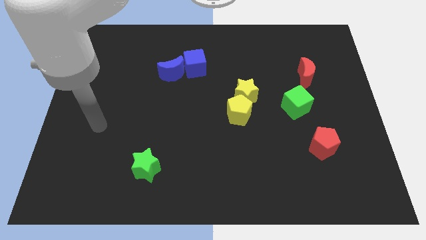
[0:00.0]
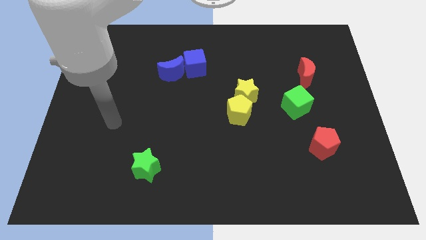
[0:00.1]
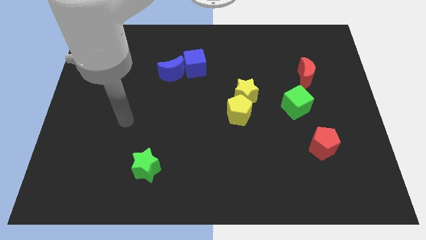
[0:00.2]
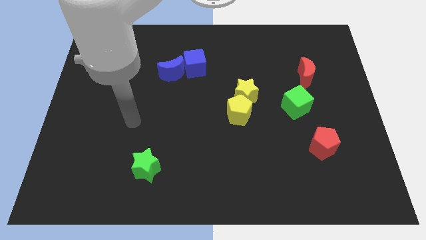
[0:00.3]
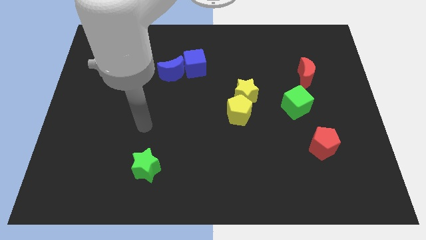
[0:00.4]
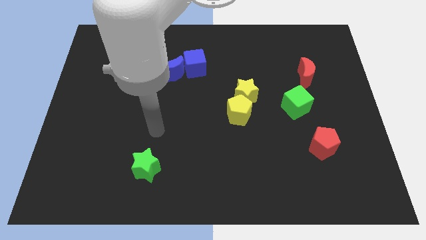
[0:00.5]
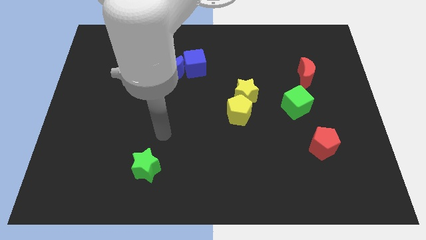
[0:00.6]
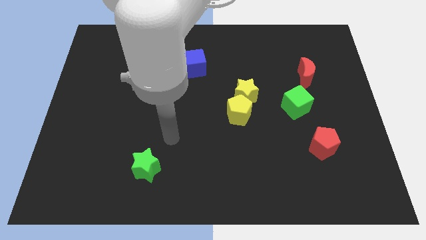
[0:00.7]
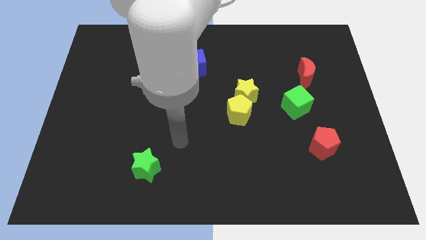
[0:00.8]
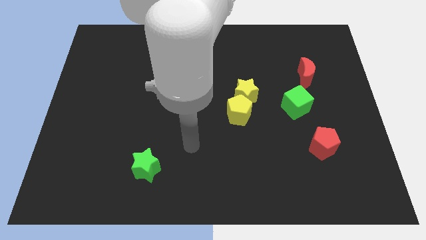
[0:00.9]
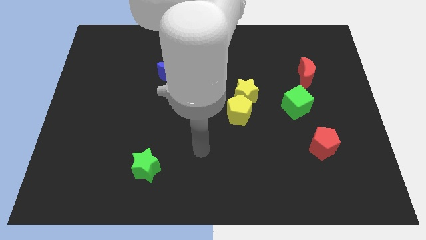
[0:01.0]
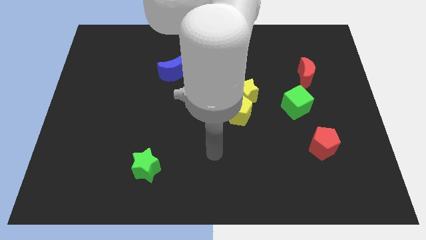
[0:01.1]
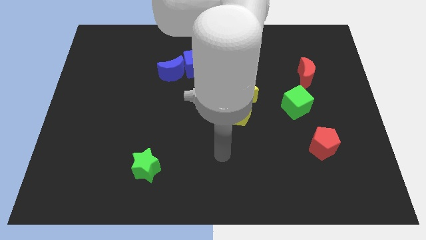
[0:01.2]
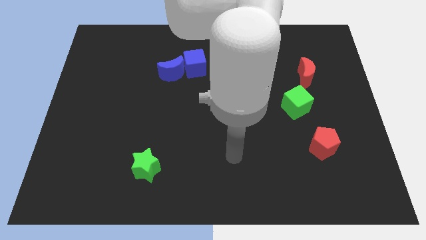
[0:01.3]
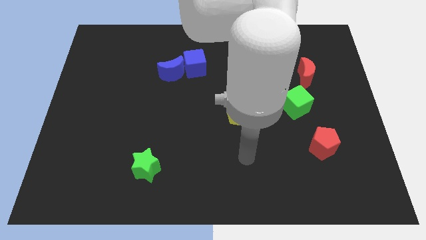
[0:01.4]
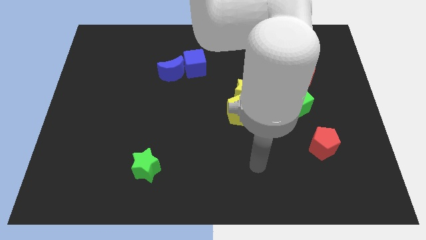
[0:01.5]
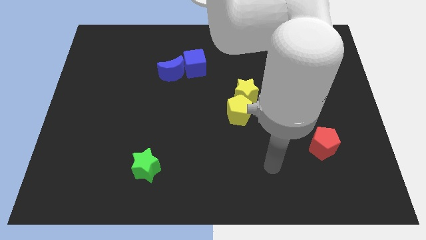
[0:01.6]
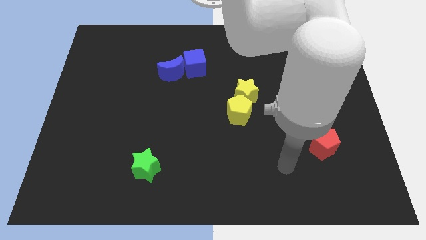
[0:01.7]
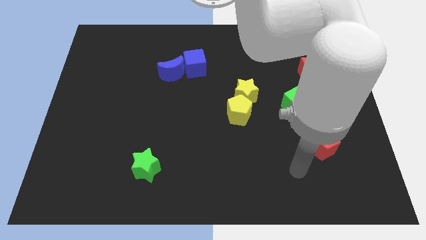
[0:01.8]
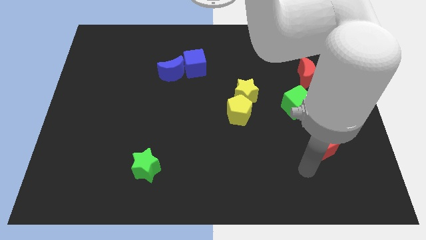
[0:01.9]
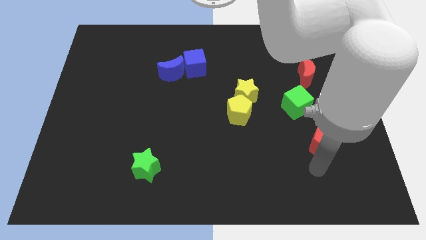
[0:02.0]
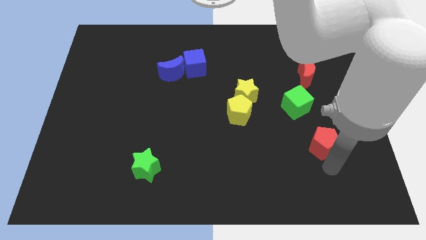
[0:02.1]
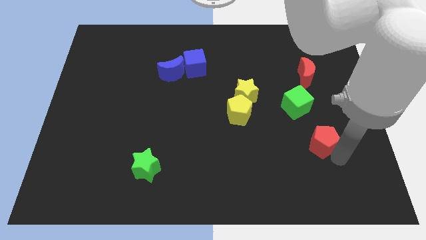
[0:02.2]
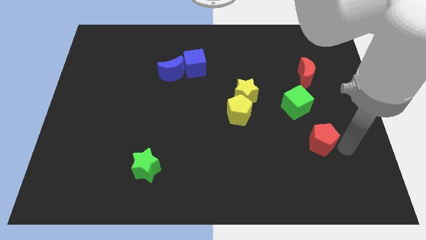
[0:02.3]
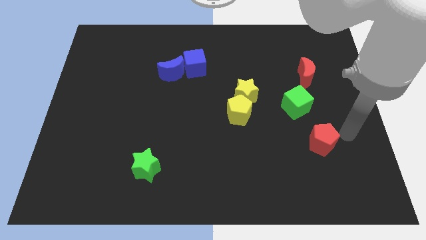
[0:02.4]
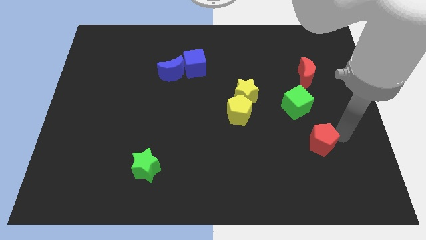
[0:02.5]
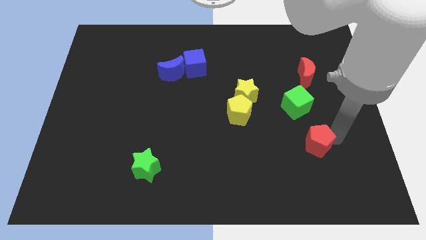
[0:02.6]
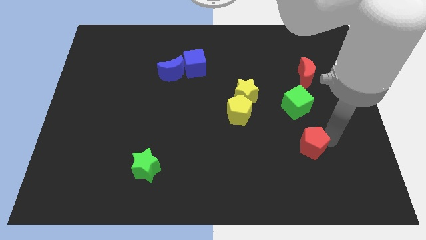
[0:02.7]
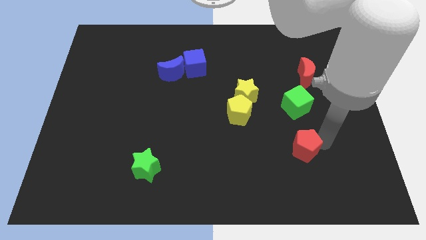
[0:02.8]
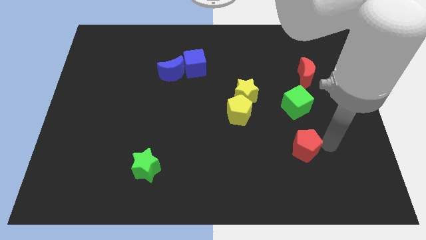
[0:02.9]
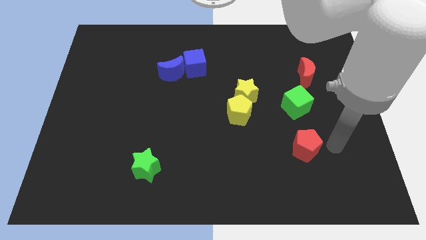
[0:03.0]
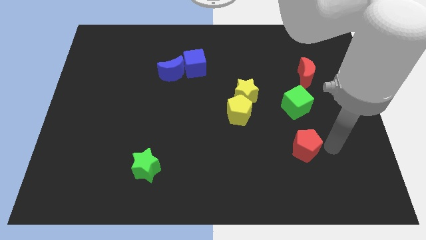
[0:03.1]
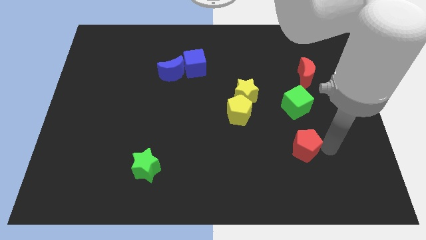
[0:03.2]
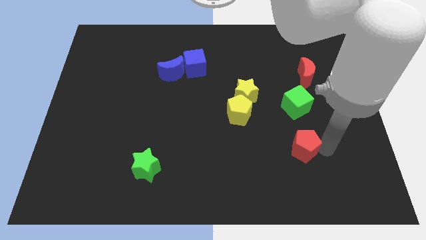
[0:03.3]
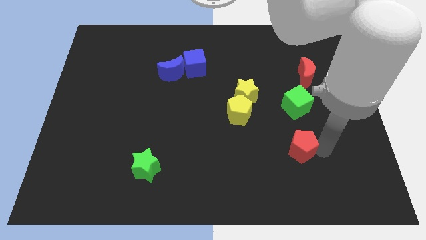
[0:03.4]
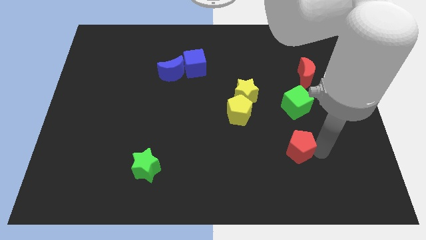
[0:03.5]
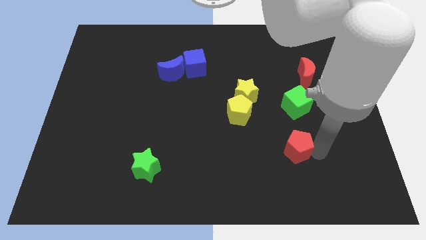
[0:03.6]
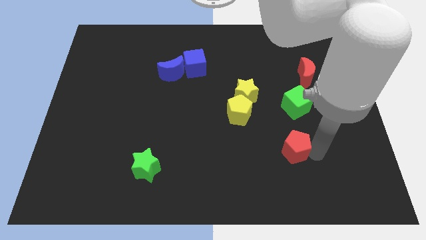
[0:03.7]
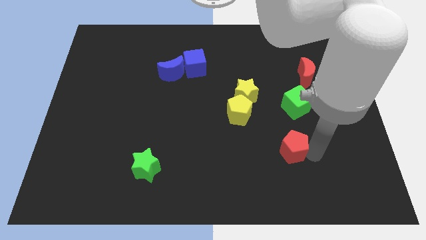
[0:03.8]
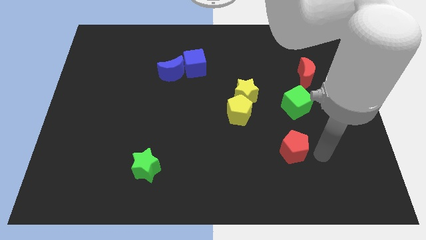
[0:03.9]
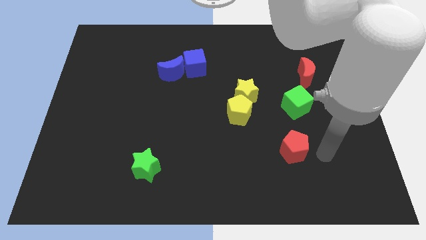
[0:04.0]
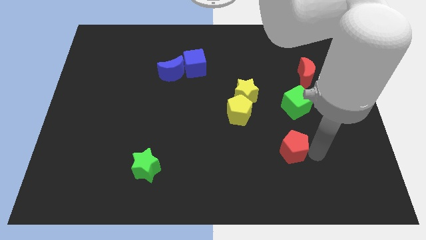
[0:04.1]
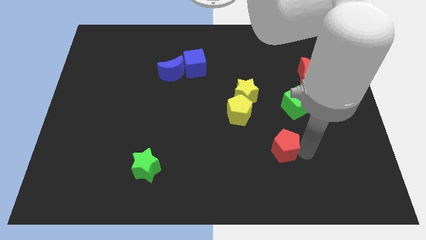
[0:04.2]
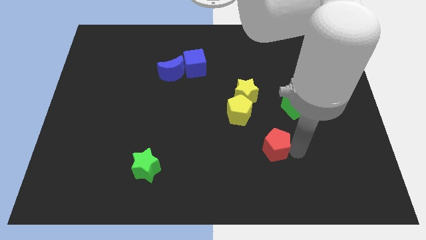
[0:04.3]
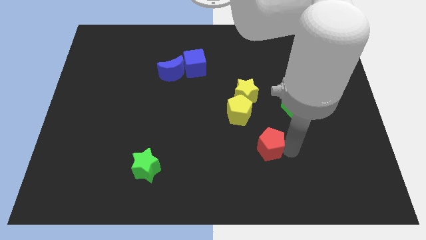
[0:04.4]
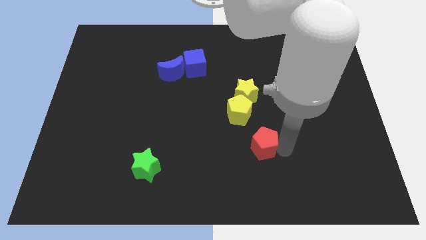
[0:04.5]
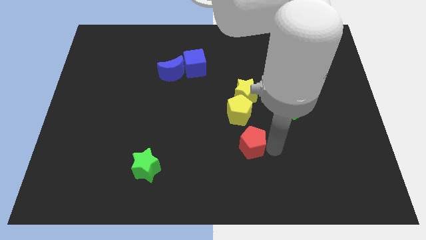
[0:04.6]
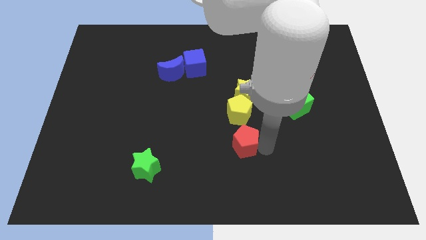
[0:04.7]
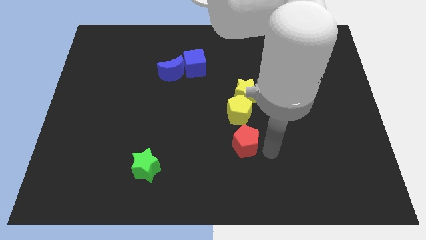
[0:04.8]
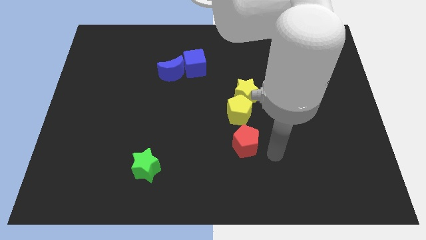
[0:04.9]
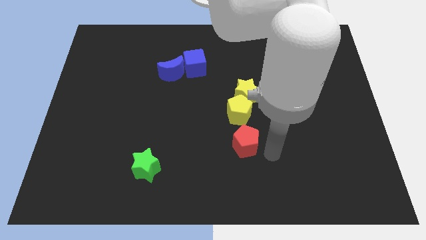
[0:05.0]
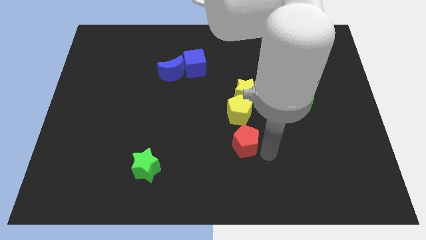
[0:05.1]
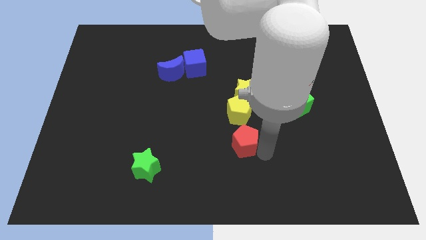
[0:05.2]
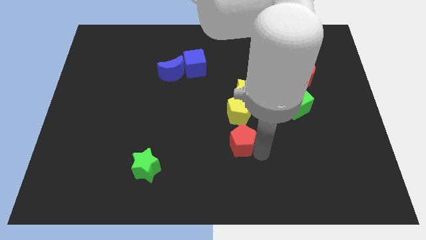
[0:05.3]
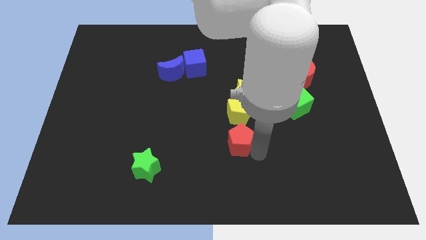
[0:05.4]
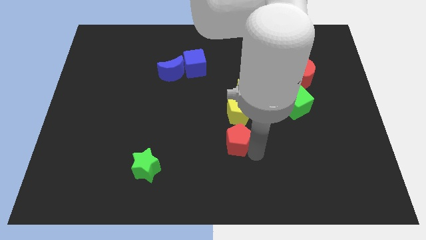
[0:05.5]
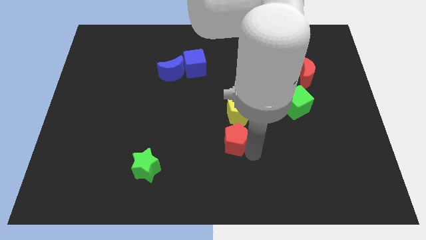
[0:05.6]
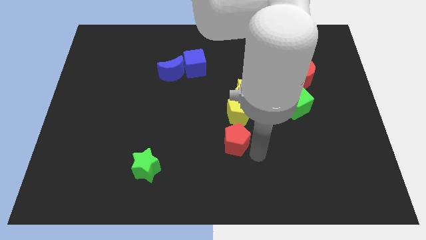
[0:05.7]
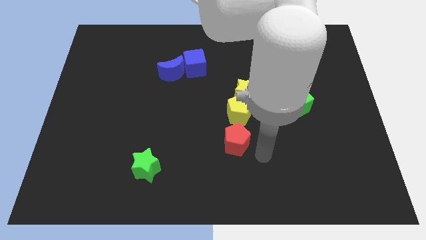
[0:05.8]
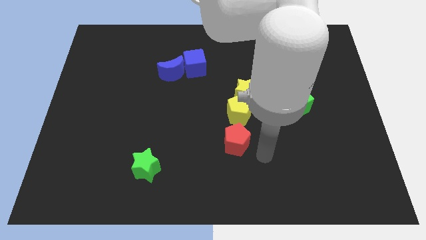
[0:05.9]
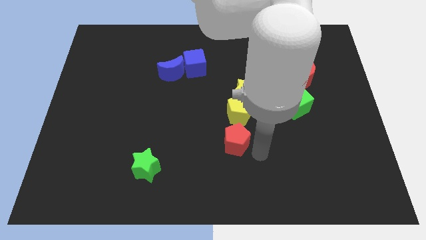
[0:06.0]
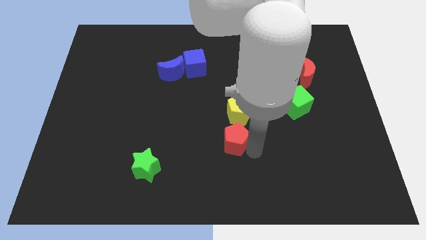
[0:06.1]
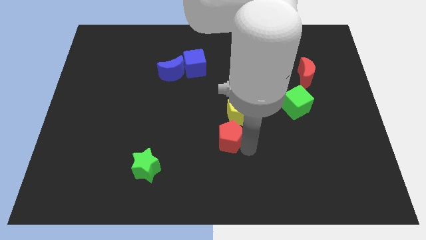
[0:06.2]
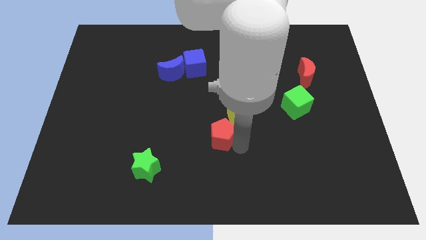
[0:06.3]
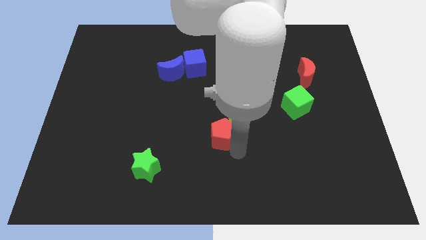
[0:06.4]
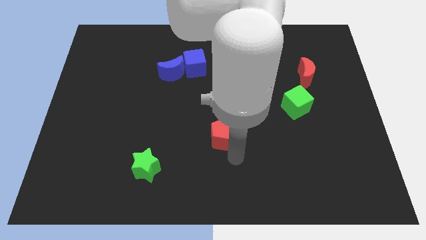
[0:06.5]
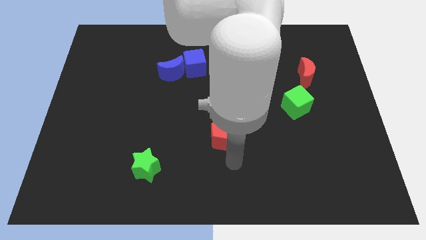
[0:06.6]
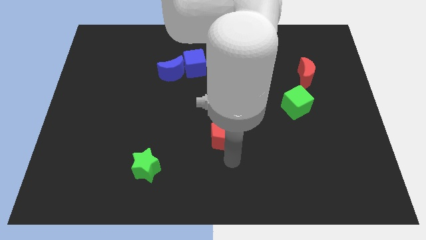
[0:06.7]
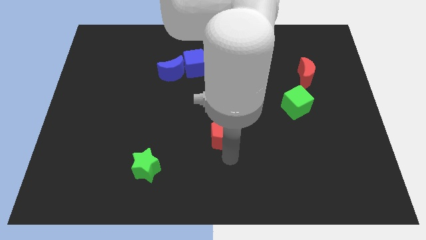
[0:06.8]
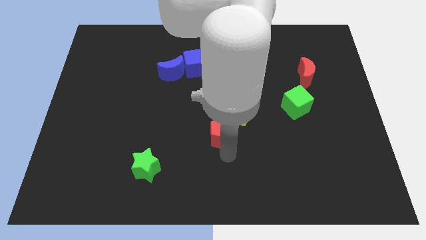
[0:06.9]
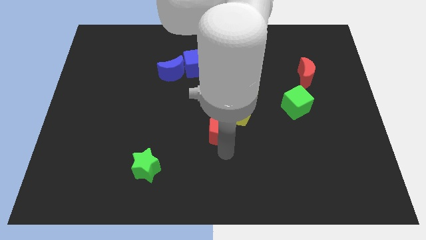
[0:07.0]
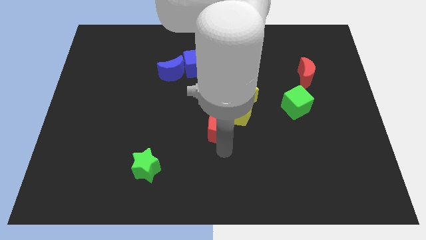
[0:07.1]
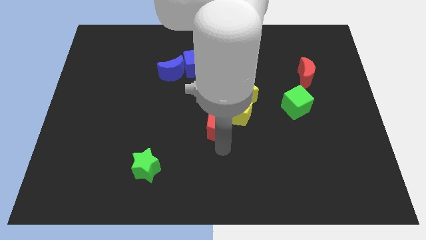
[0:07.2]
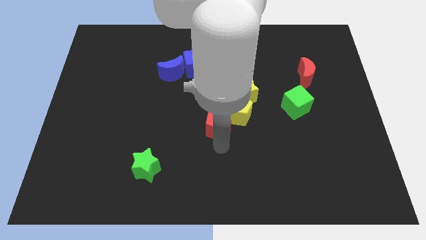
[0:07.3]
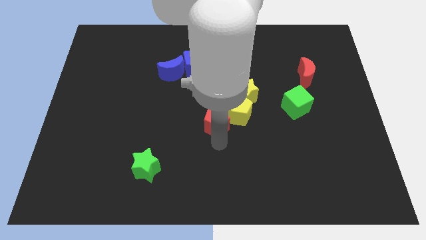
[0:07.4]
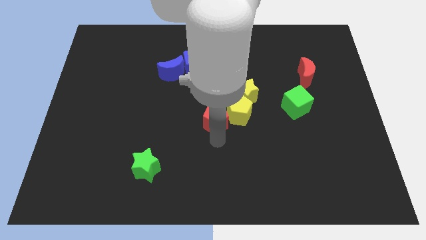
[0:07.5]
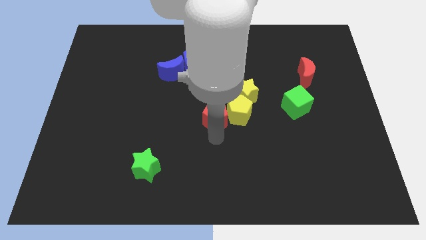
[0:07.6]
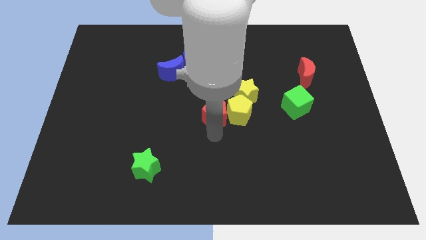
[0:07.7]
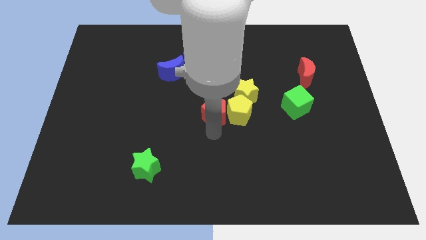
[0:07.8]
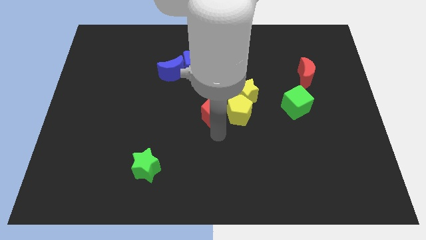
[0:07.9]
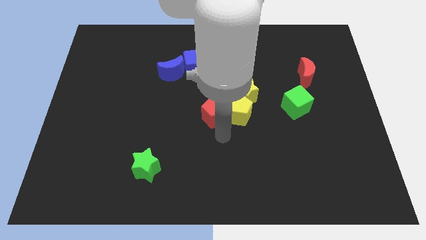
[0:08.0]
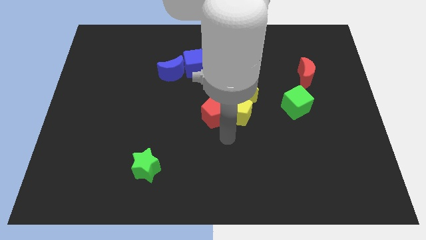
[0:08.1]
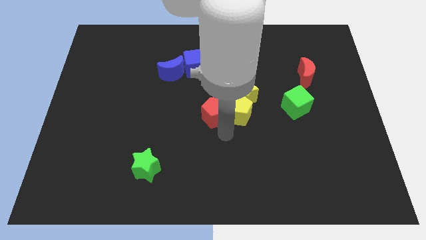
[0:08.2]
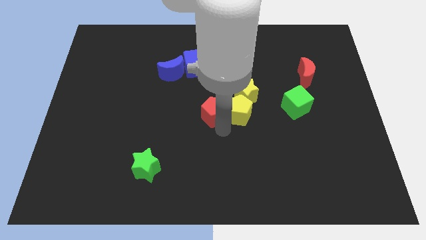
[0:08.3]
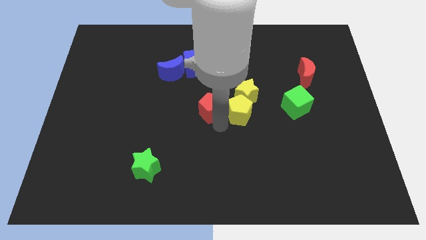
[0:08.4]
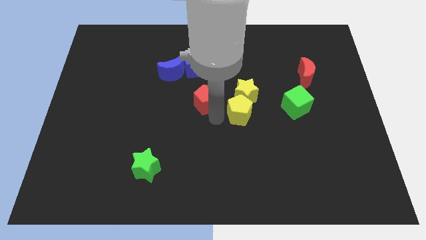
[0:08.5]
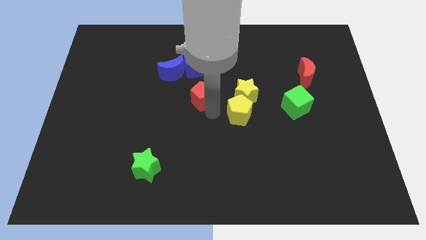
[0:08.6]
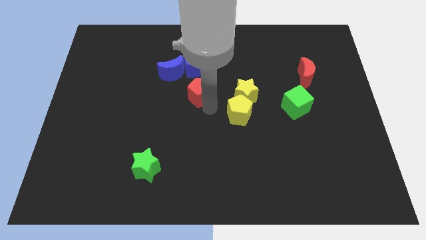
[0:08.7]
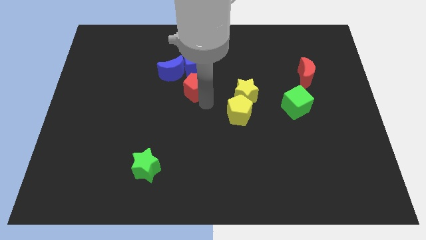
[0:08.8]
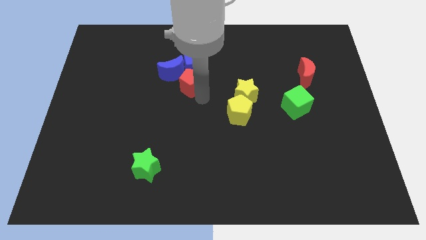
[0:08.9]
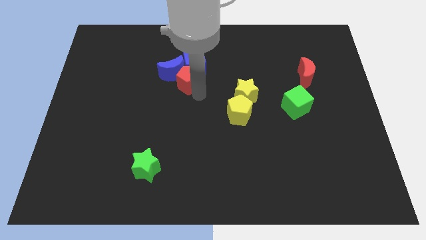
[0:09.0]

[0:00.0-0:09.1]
push the red pentagon next to the blue moon
